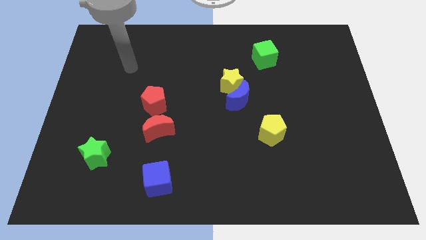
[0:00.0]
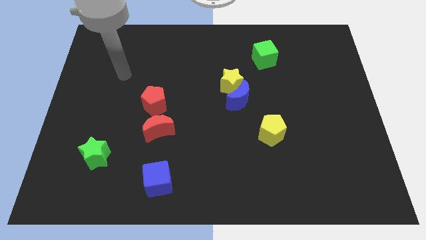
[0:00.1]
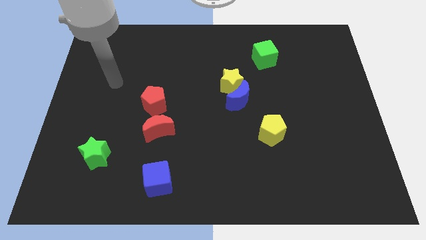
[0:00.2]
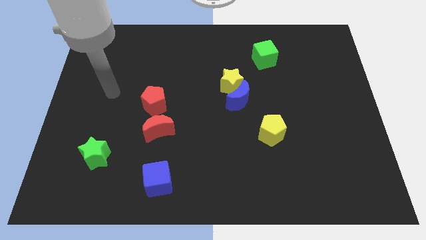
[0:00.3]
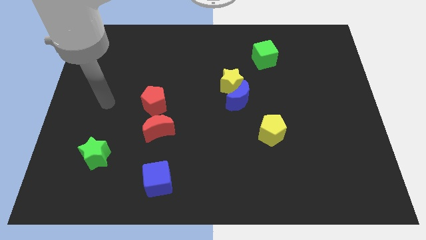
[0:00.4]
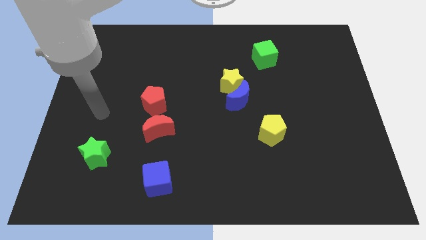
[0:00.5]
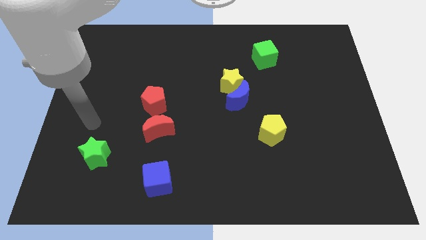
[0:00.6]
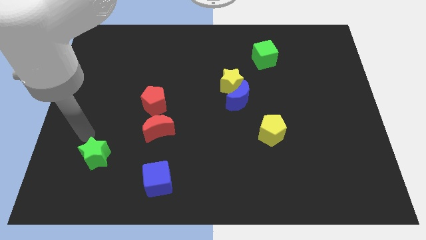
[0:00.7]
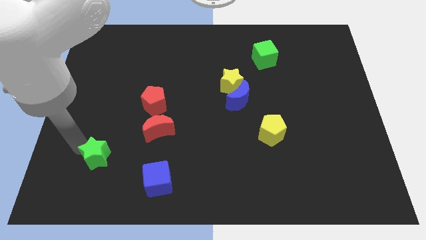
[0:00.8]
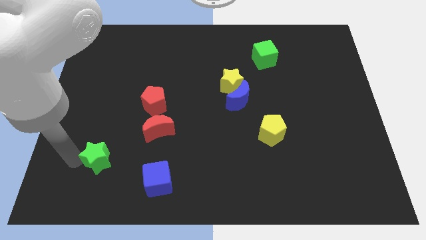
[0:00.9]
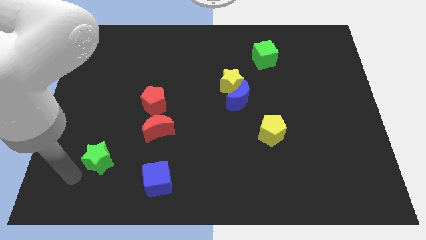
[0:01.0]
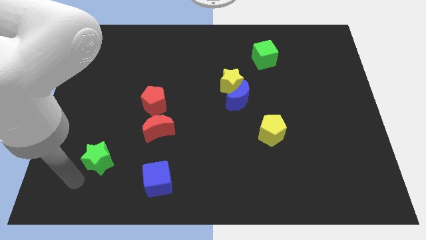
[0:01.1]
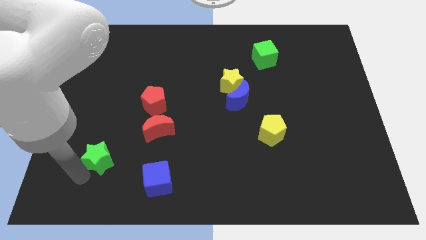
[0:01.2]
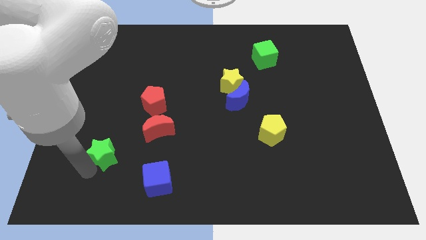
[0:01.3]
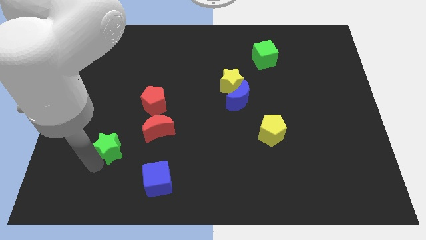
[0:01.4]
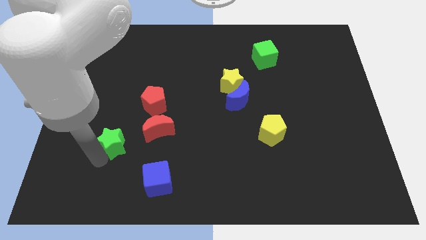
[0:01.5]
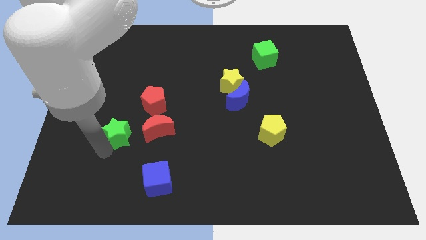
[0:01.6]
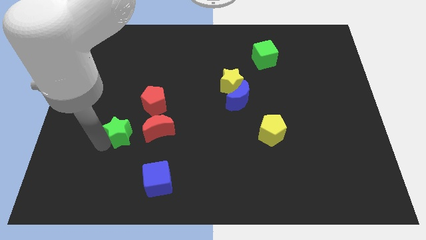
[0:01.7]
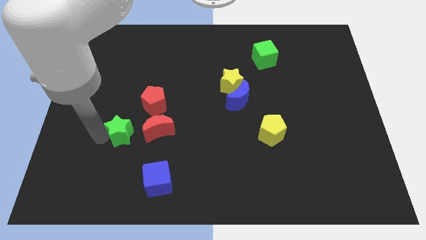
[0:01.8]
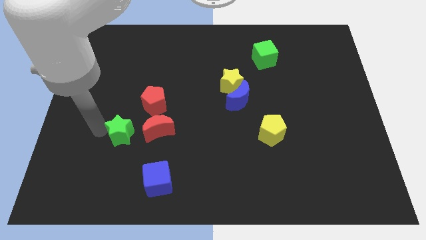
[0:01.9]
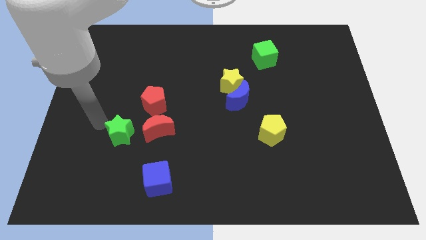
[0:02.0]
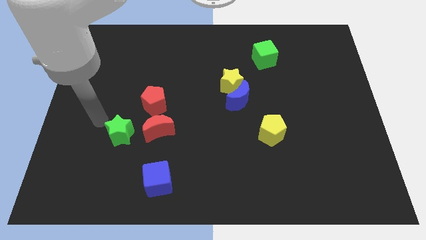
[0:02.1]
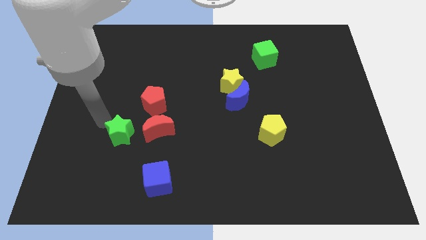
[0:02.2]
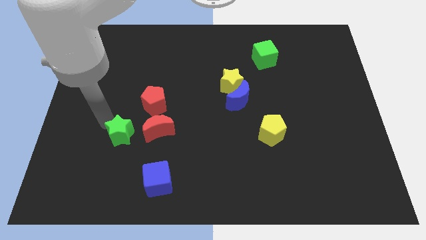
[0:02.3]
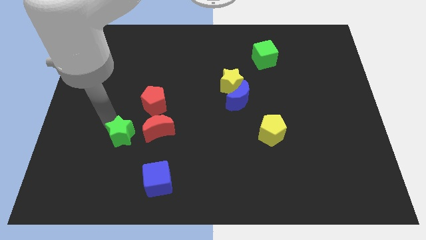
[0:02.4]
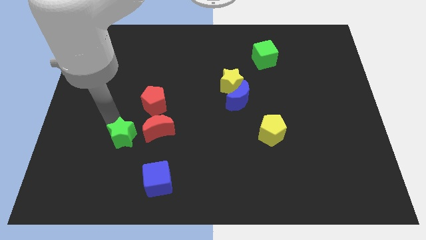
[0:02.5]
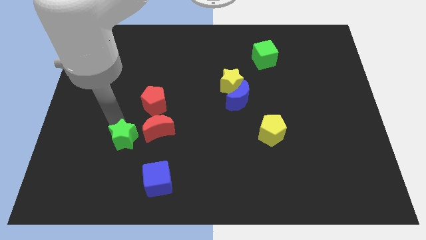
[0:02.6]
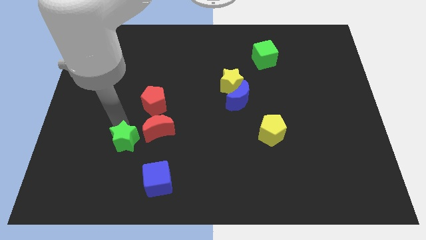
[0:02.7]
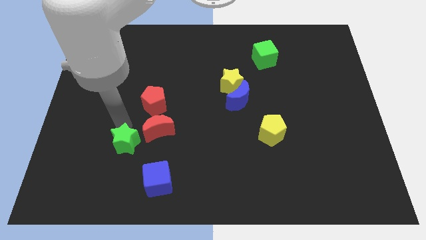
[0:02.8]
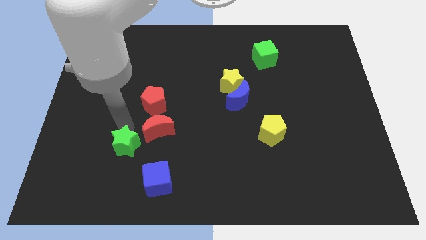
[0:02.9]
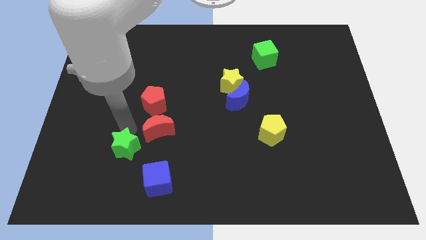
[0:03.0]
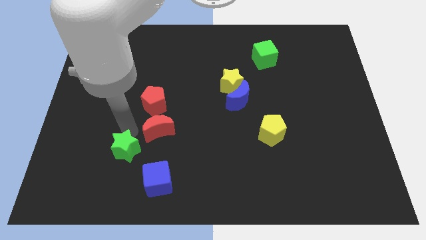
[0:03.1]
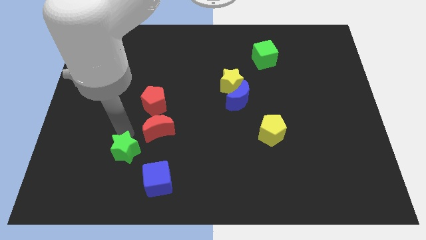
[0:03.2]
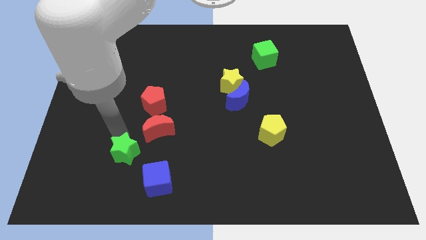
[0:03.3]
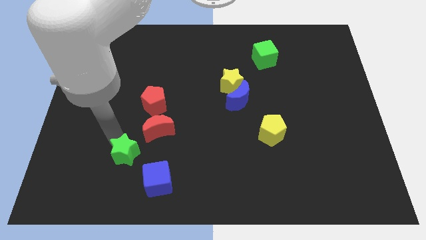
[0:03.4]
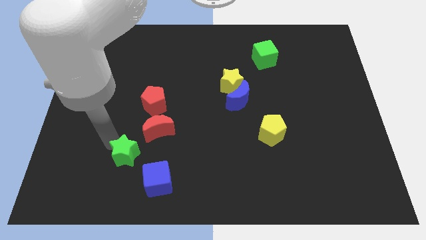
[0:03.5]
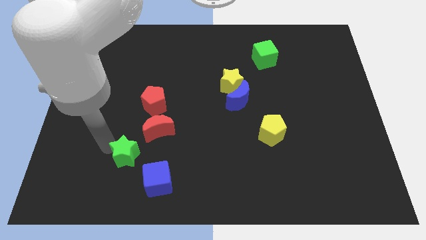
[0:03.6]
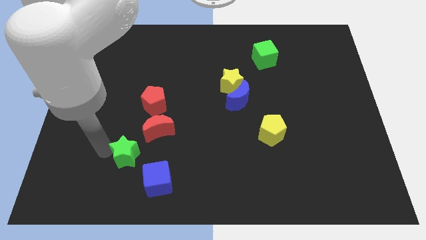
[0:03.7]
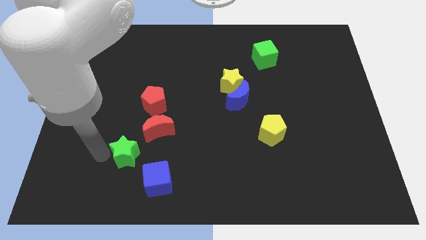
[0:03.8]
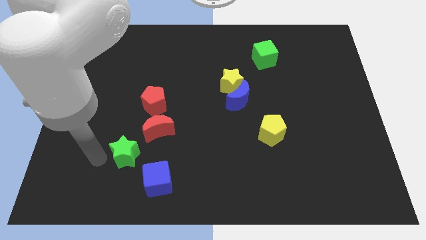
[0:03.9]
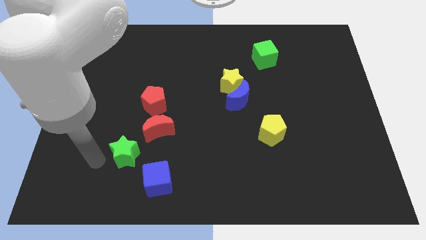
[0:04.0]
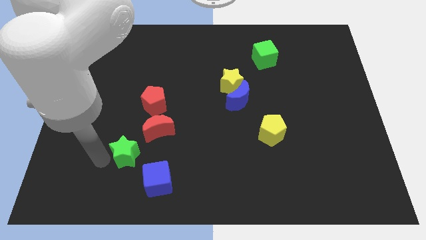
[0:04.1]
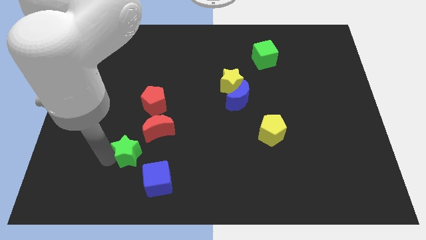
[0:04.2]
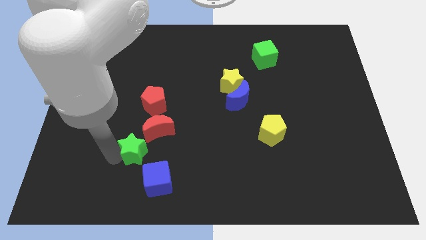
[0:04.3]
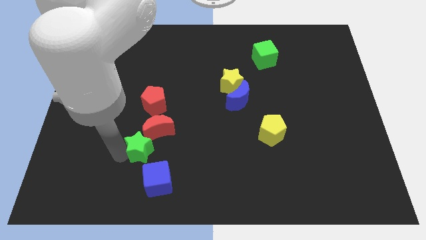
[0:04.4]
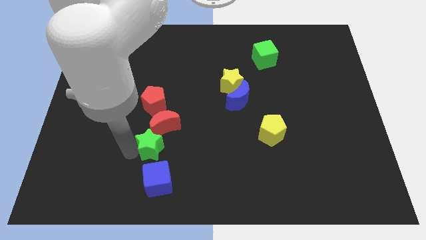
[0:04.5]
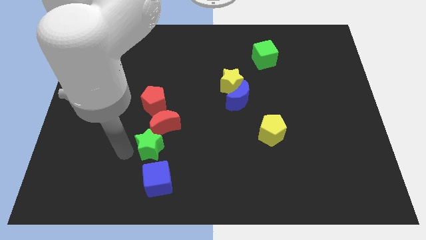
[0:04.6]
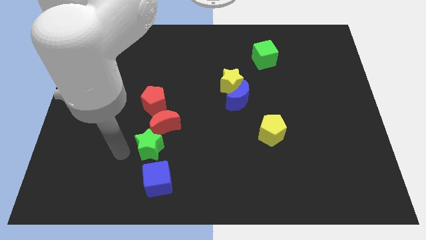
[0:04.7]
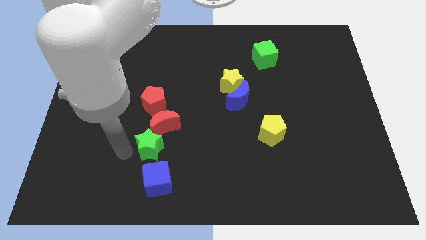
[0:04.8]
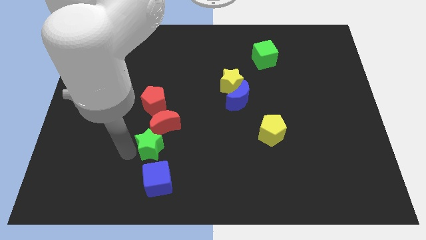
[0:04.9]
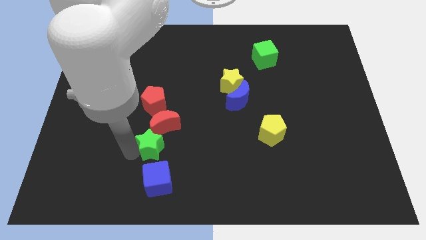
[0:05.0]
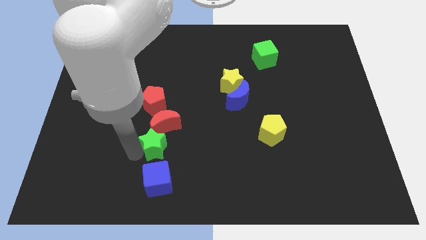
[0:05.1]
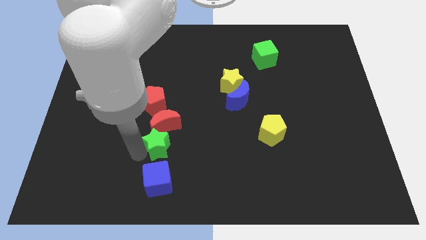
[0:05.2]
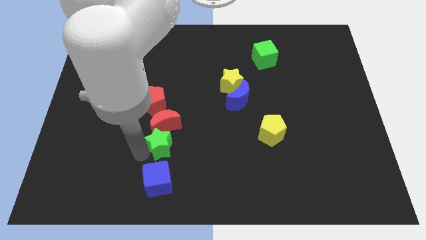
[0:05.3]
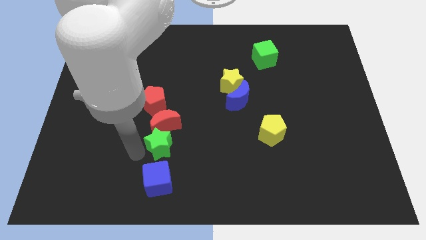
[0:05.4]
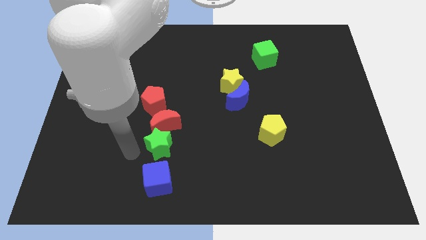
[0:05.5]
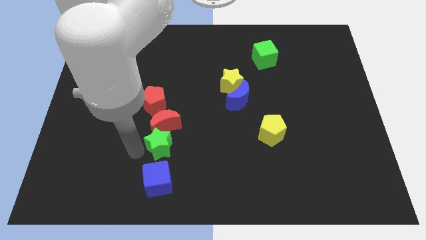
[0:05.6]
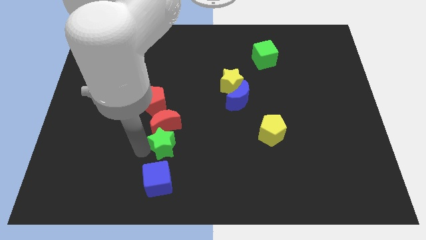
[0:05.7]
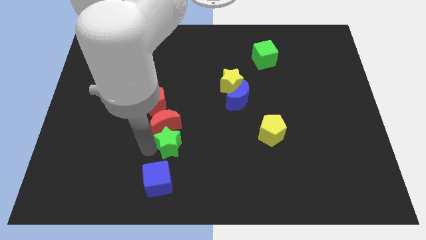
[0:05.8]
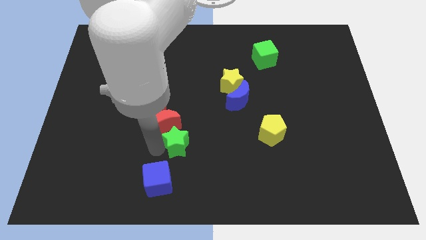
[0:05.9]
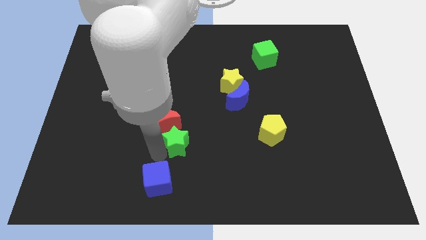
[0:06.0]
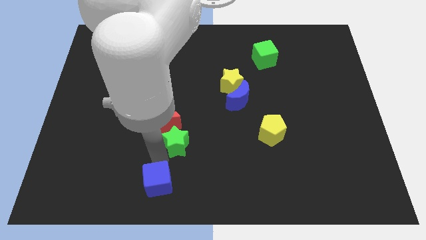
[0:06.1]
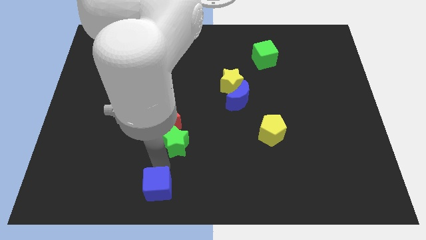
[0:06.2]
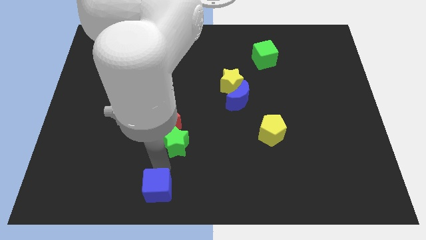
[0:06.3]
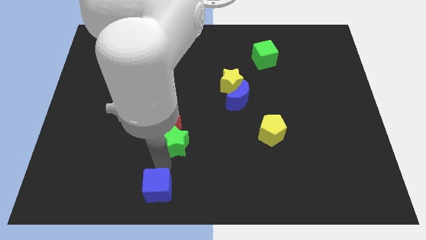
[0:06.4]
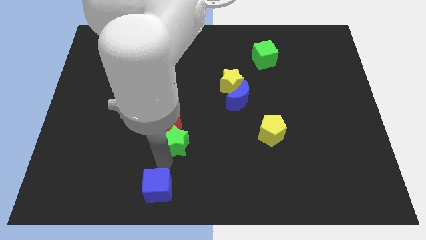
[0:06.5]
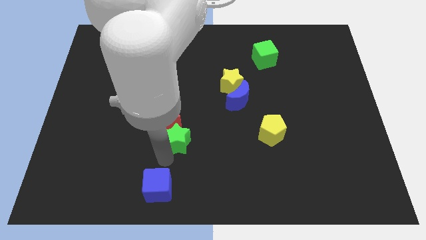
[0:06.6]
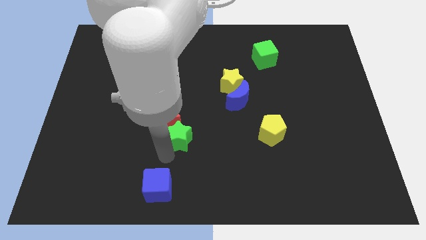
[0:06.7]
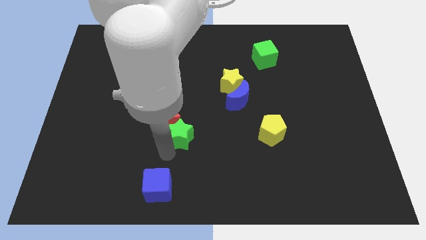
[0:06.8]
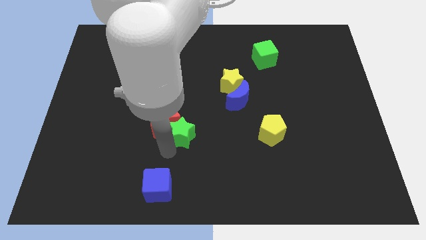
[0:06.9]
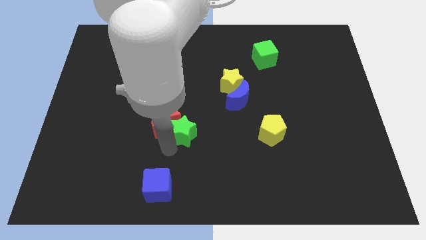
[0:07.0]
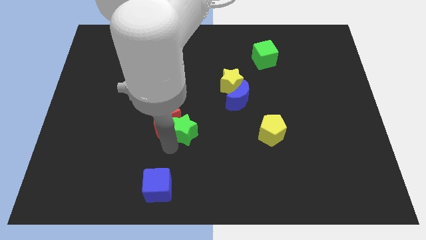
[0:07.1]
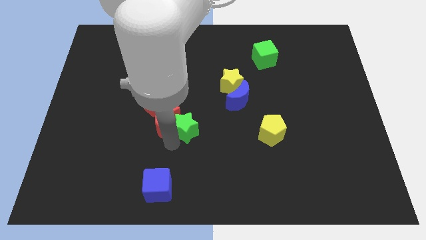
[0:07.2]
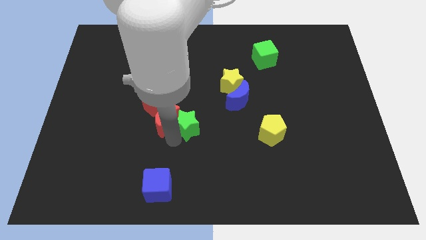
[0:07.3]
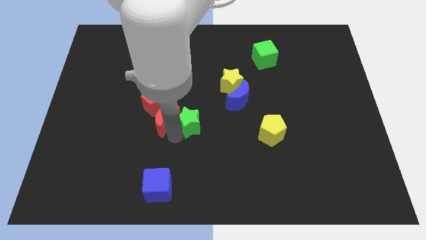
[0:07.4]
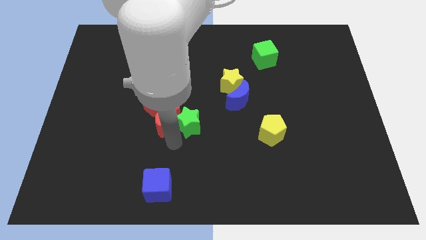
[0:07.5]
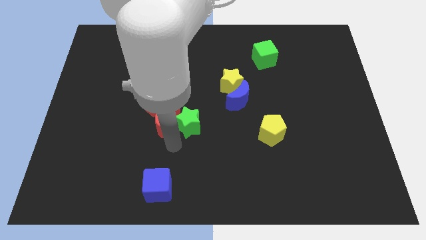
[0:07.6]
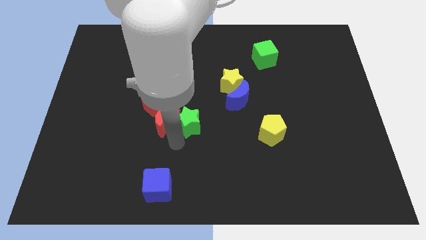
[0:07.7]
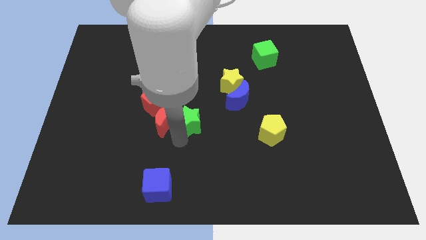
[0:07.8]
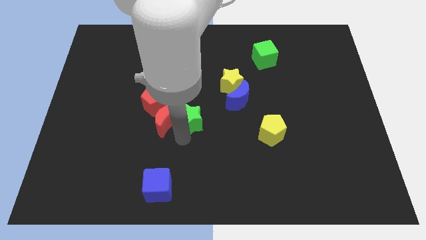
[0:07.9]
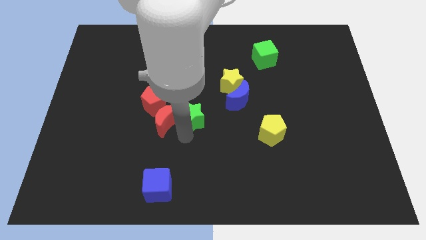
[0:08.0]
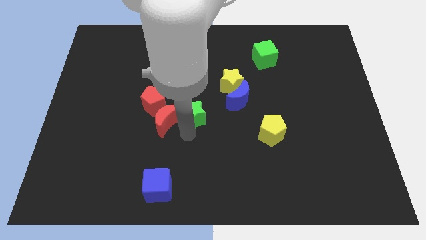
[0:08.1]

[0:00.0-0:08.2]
move the green star to the bottom left of the yellow star
